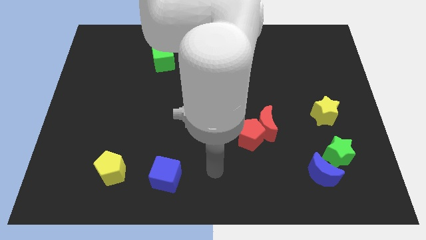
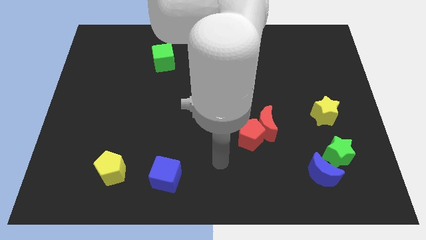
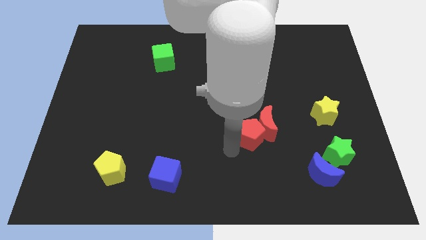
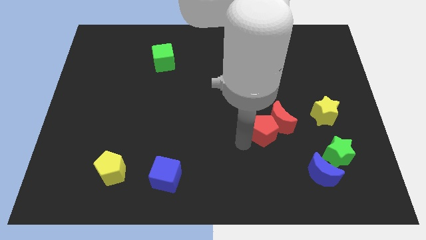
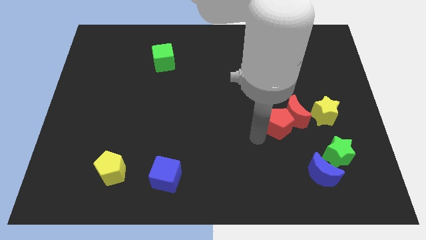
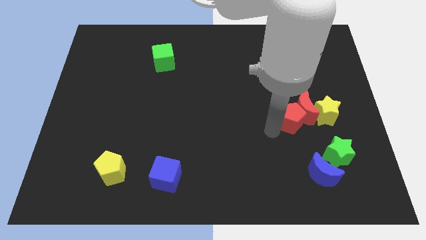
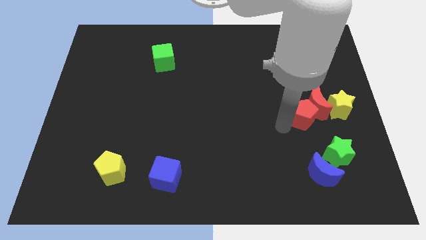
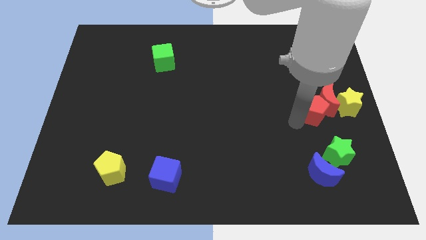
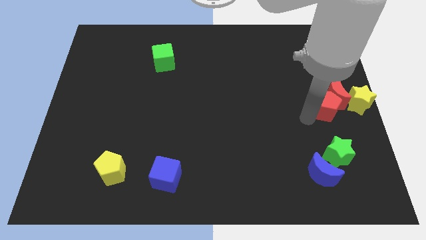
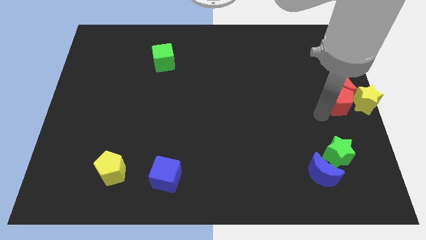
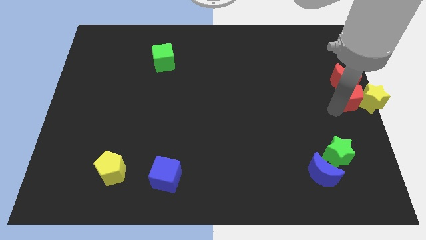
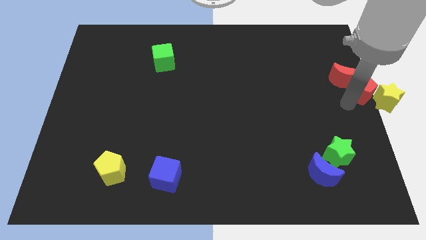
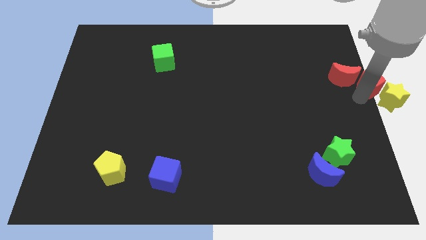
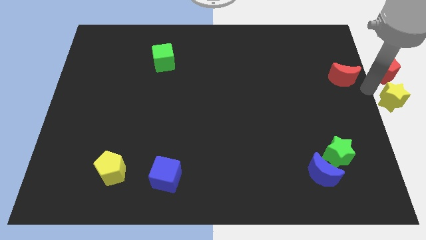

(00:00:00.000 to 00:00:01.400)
pull the red moon apart from the red pentagon

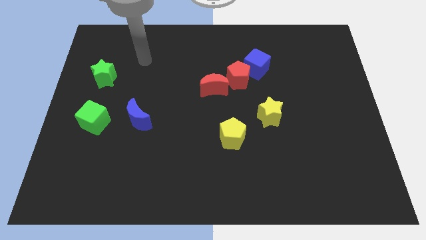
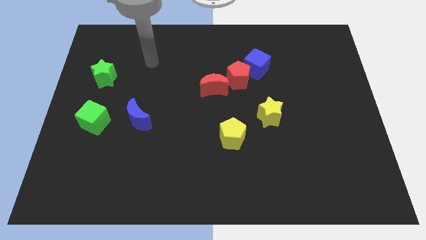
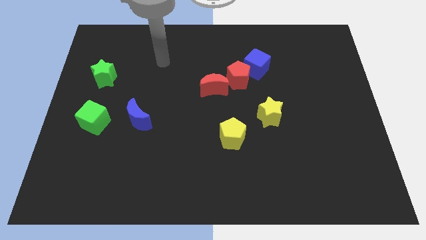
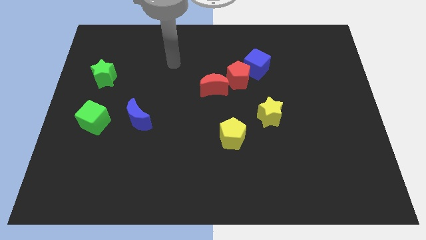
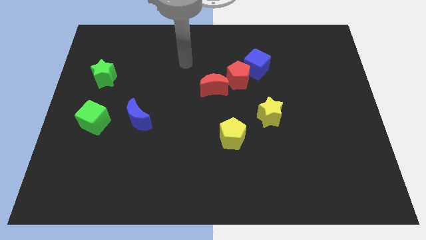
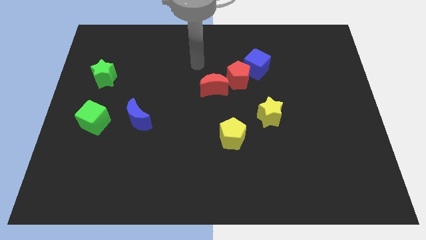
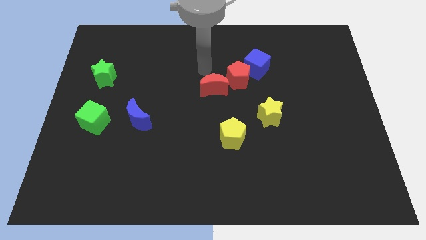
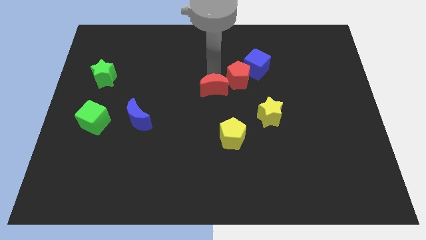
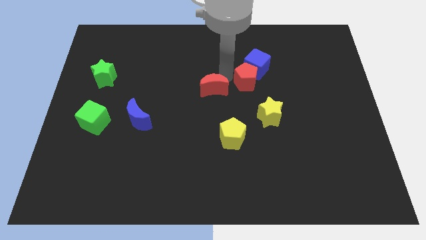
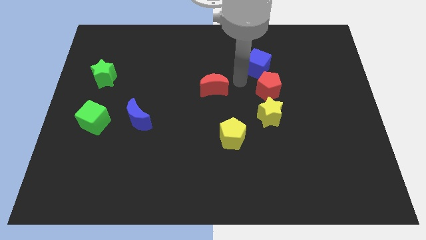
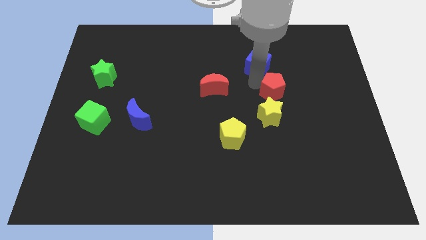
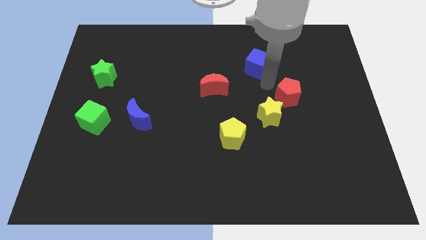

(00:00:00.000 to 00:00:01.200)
pull the blue cube apart from the red pentagon

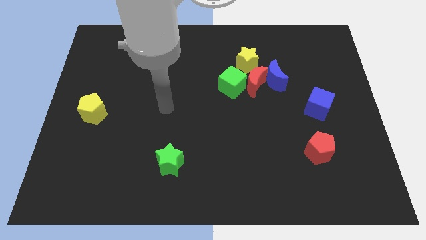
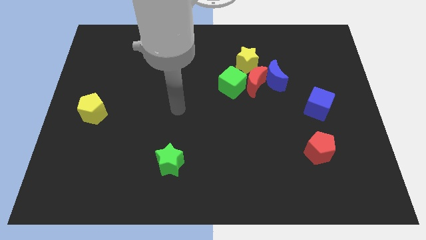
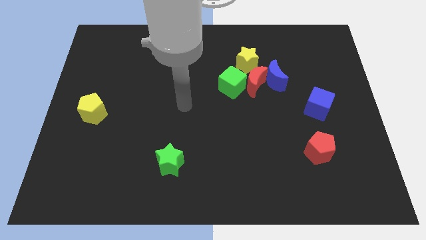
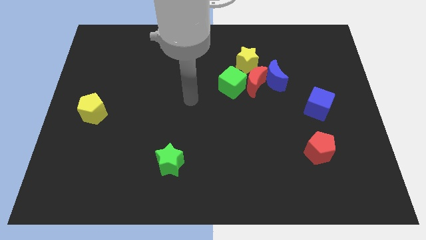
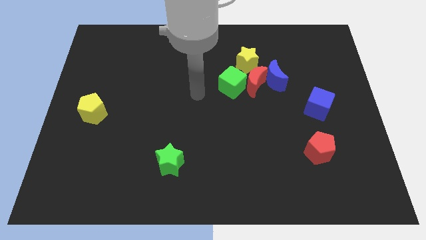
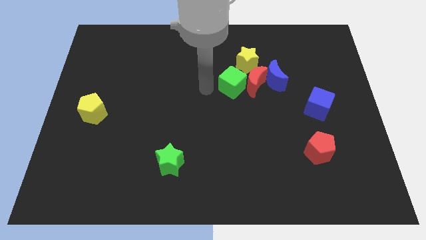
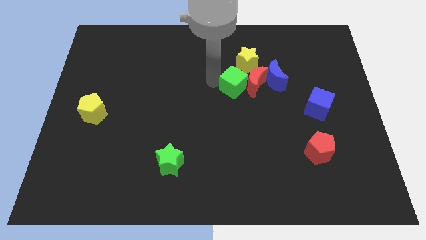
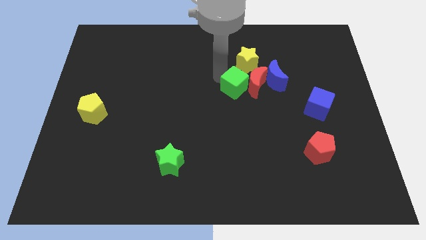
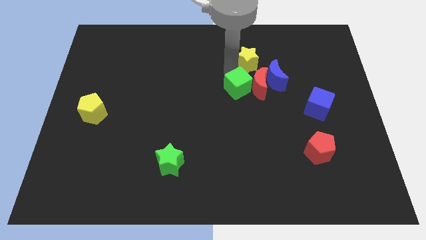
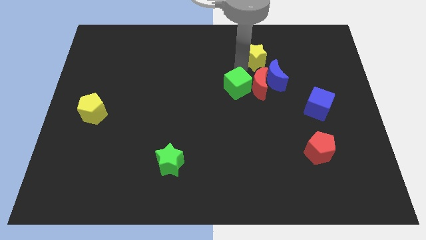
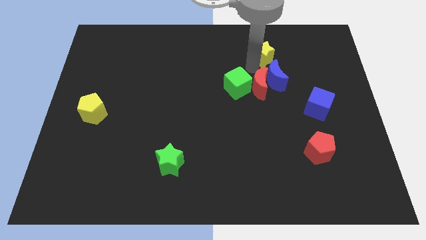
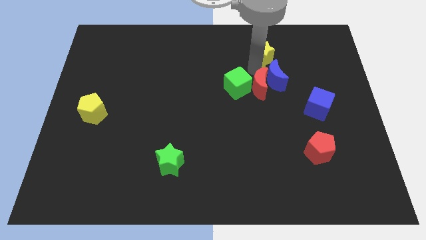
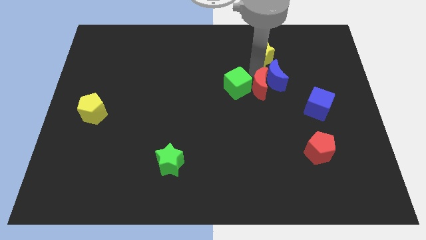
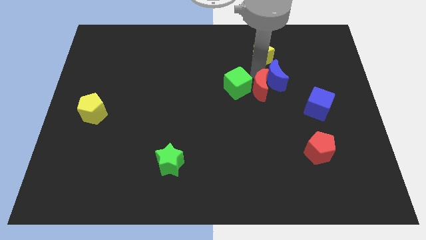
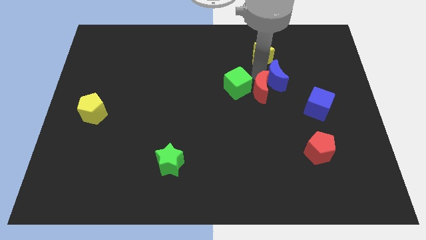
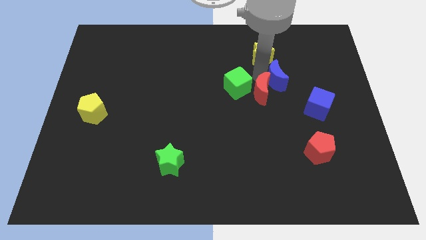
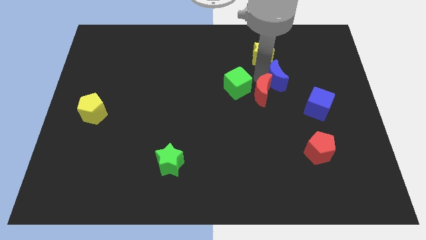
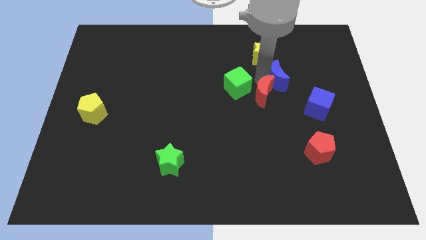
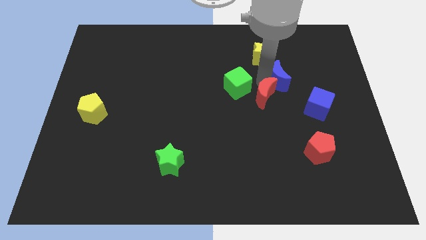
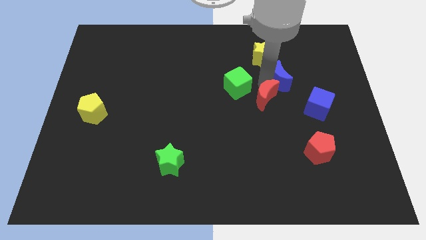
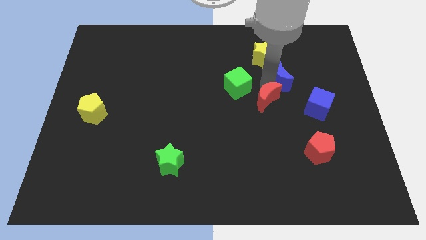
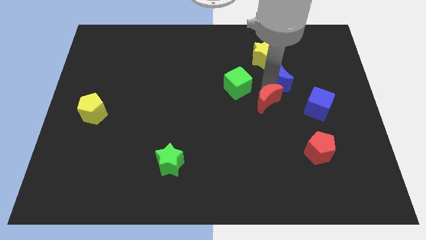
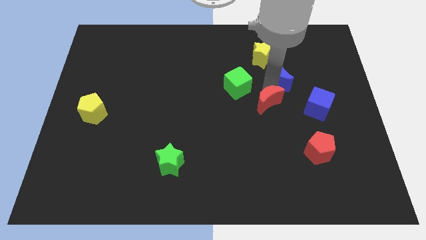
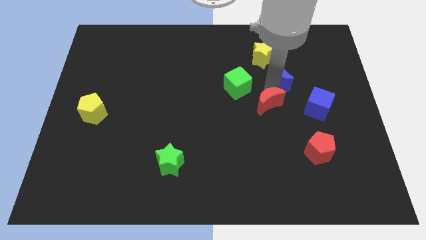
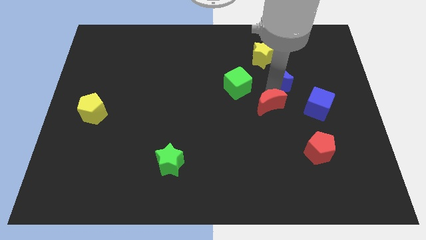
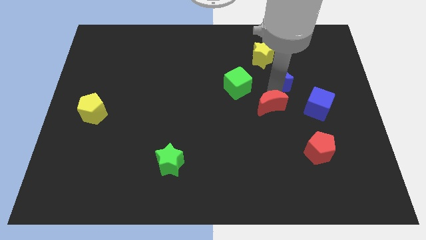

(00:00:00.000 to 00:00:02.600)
move the red moon away from the blue moon, green cube, and yellow star

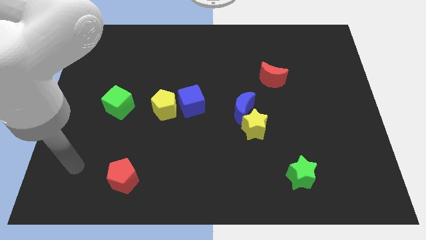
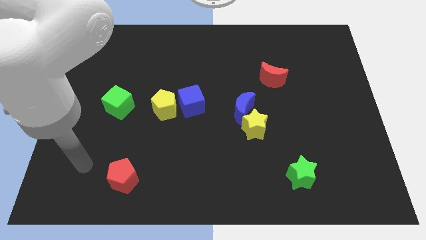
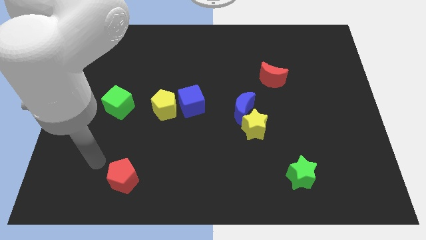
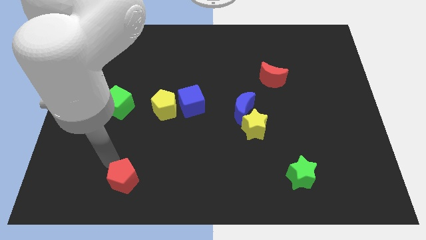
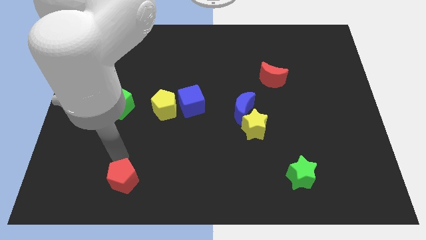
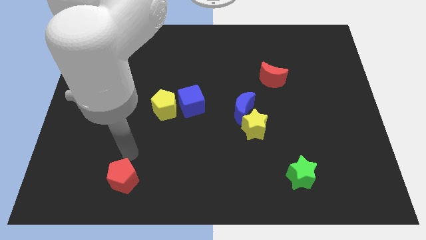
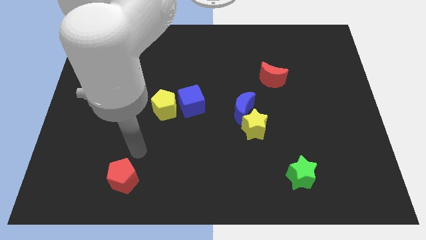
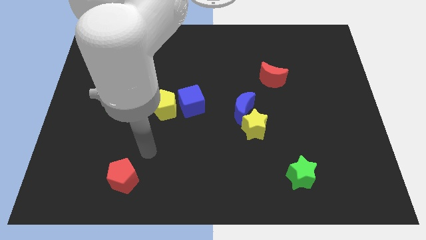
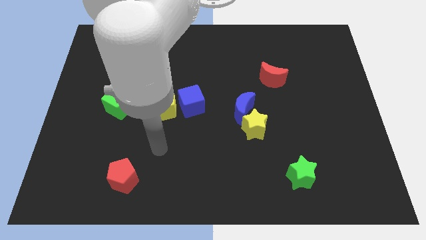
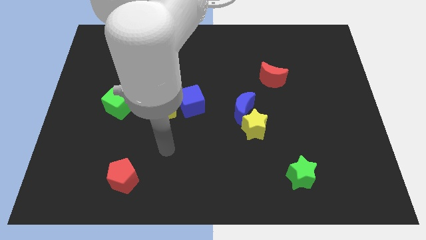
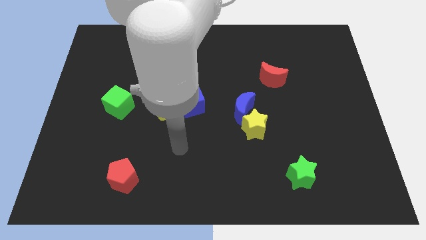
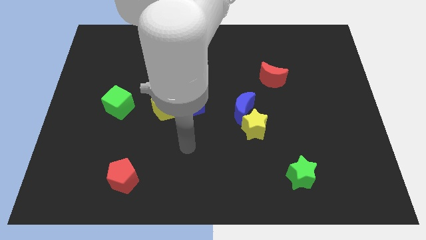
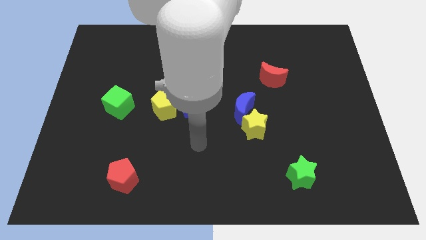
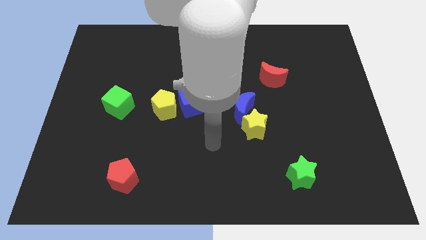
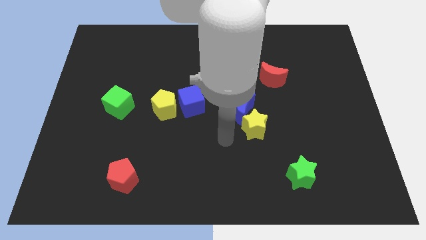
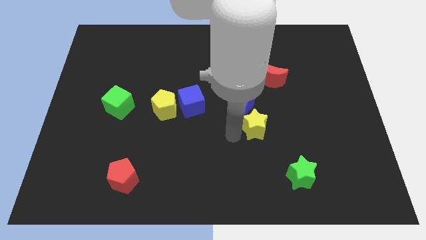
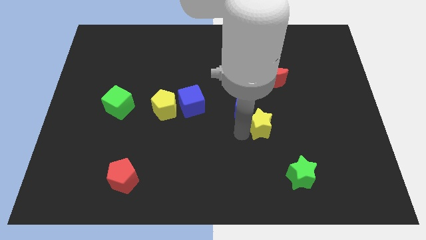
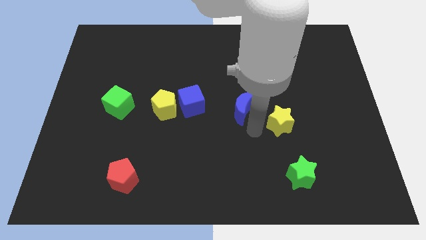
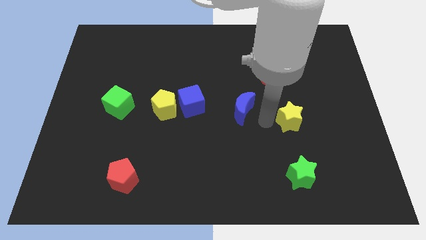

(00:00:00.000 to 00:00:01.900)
separate the blue moon from the yellow star

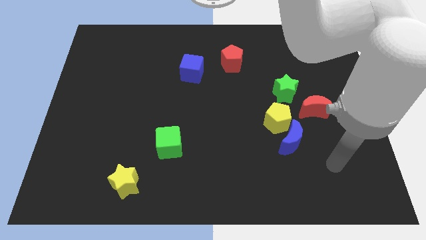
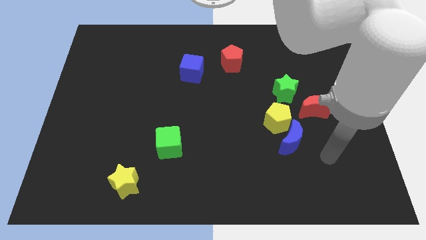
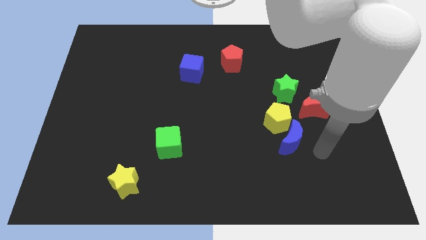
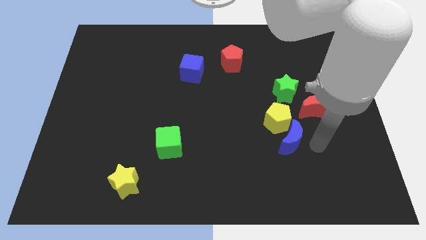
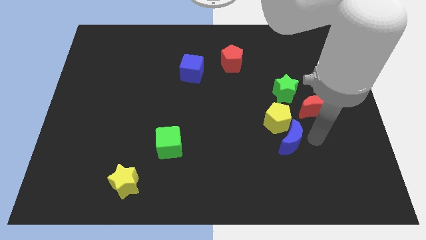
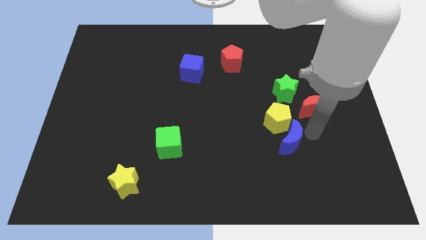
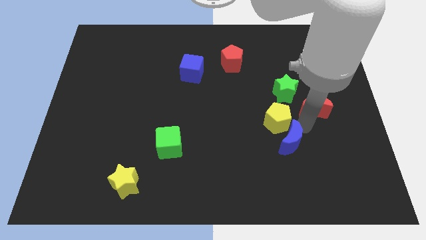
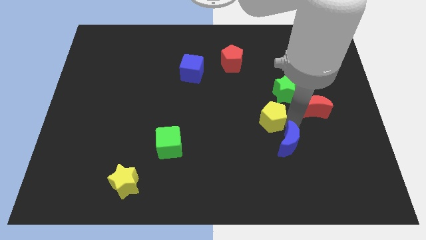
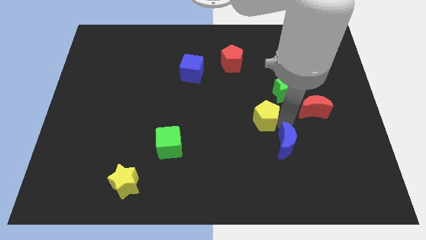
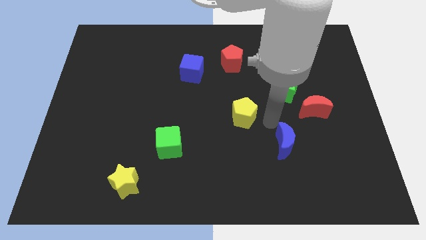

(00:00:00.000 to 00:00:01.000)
move the blue moon away from the yellow pentagon

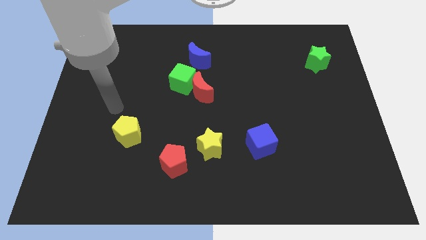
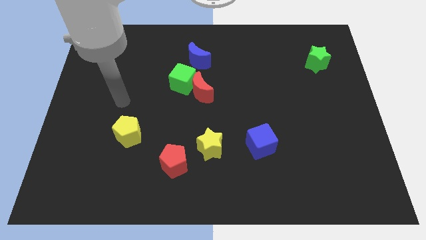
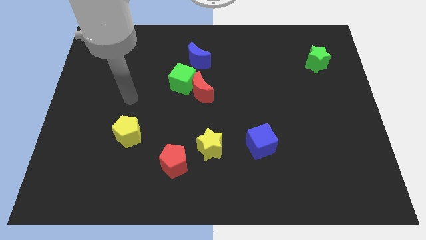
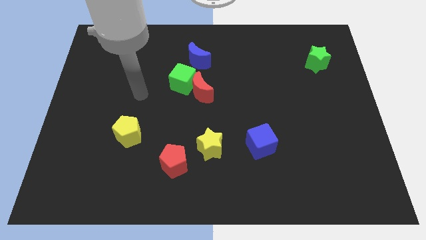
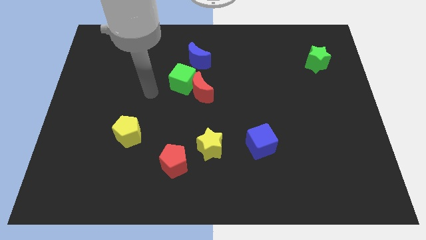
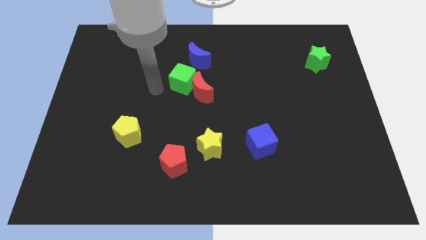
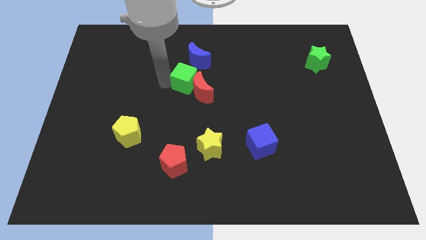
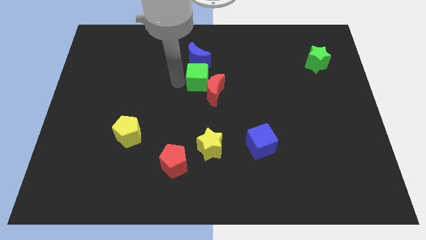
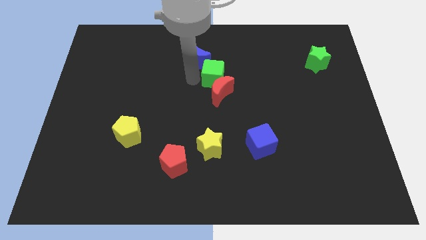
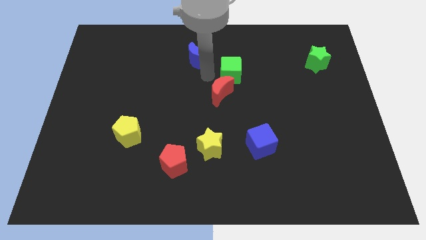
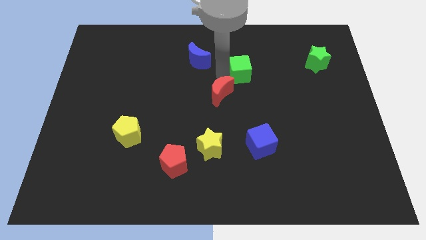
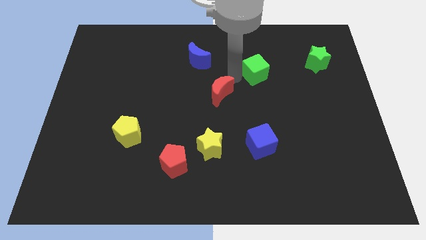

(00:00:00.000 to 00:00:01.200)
separate the red moon from the green cube
